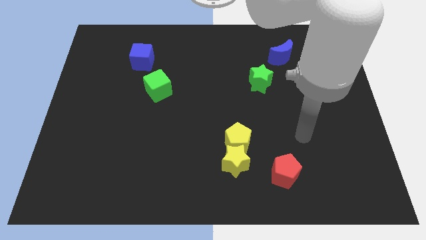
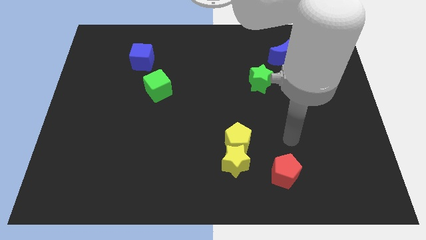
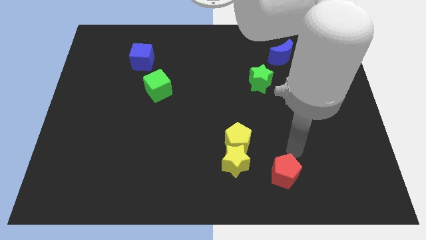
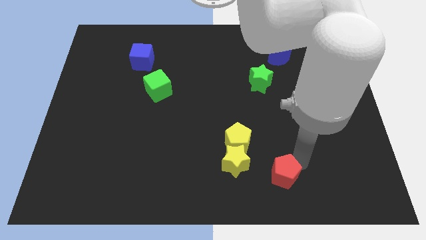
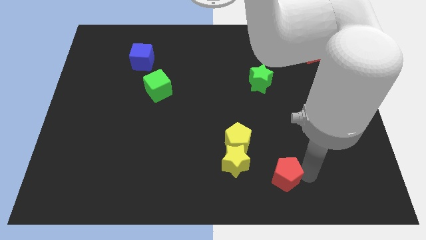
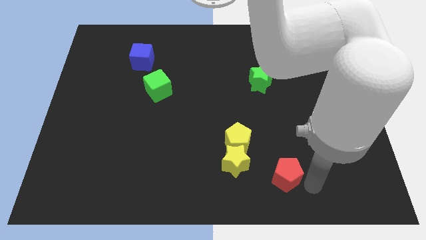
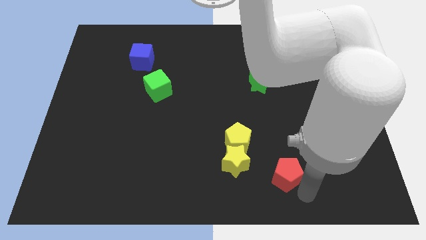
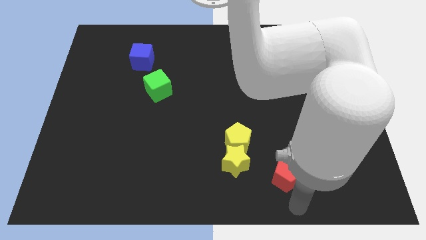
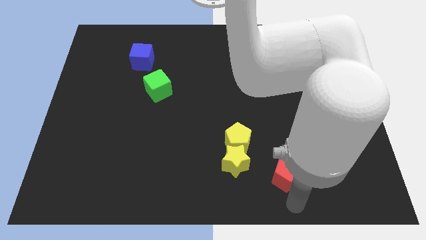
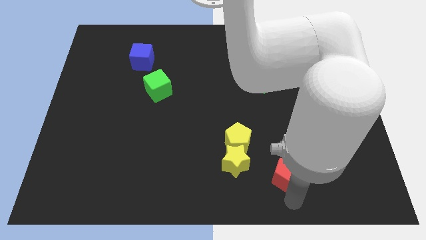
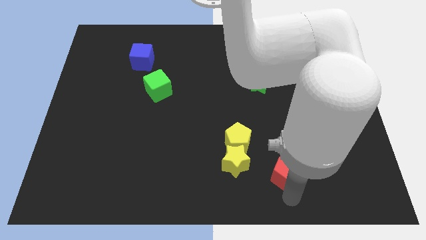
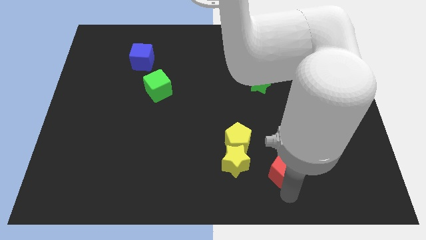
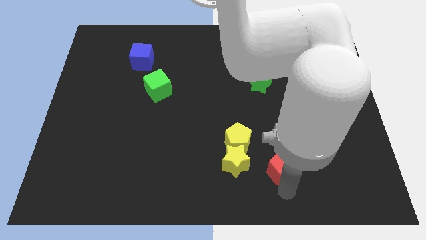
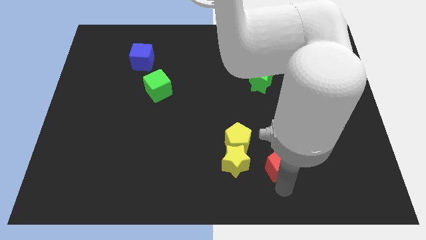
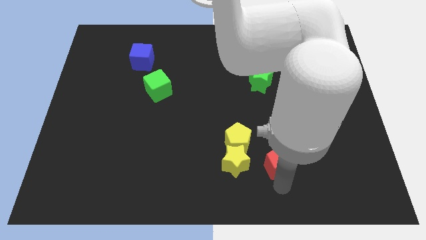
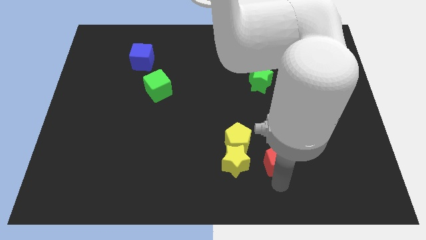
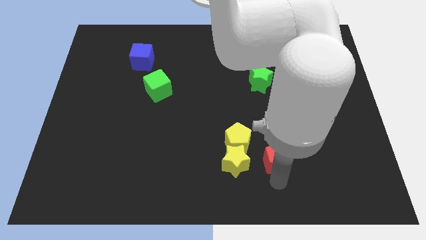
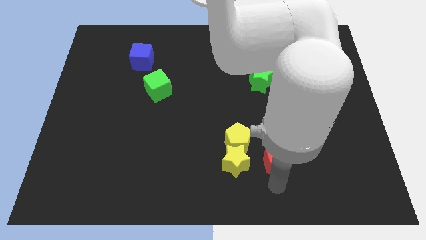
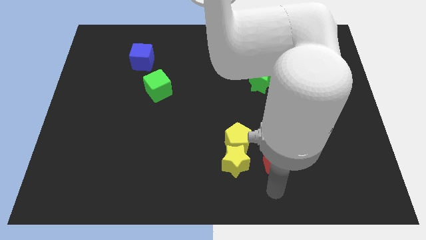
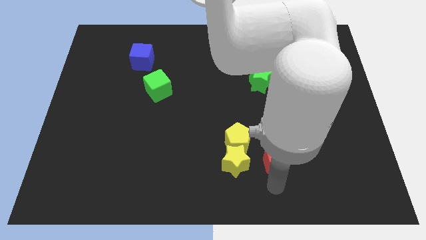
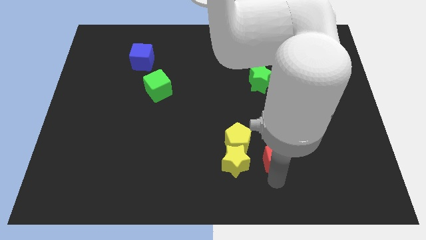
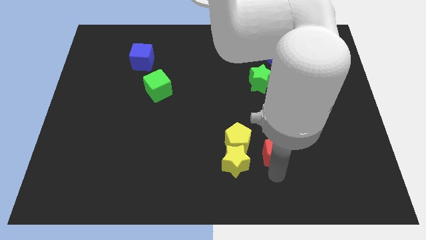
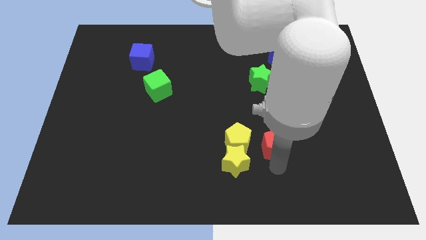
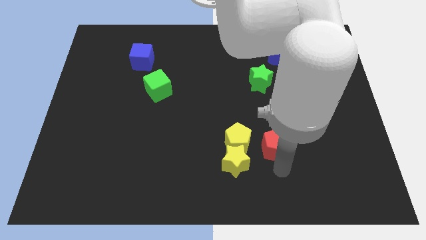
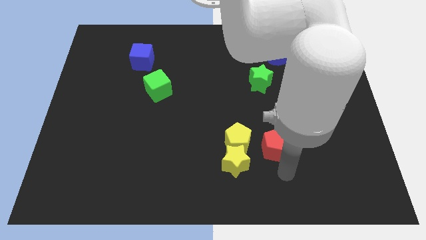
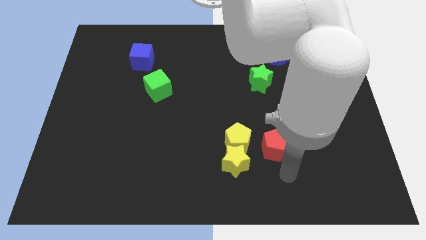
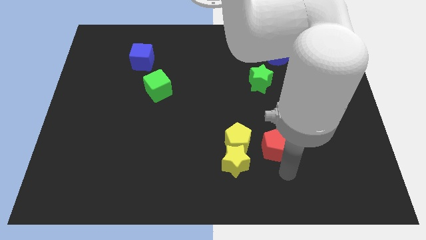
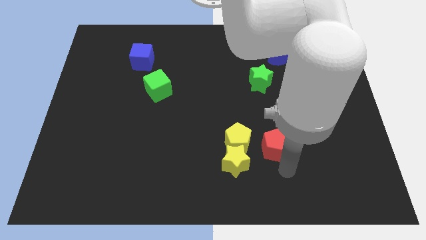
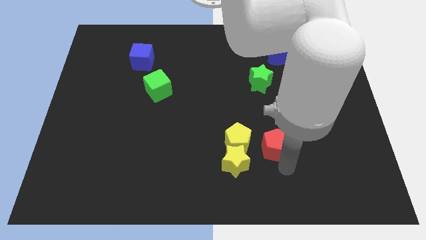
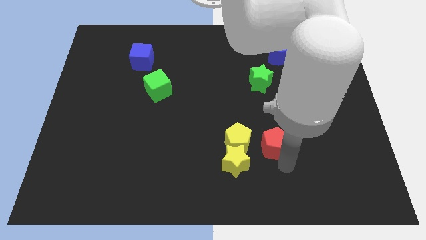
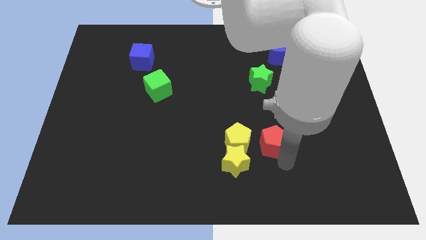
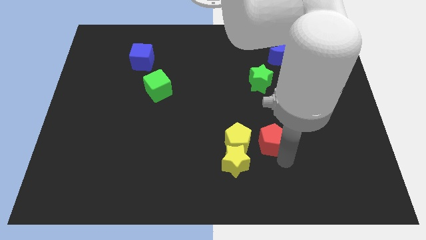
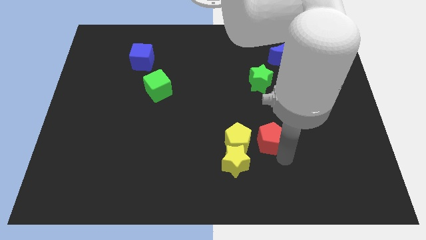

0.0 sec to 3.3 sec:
slightly move the red pentagon upwards and left diagonally

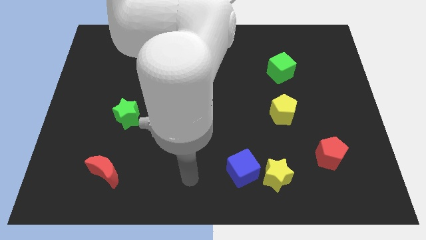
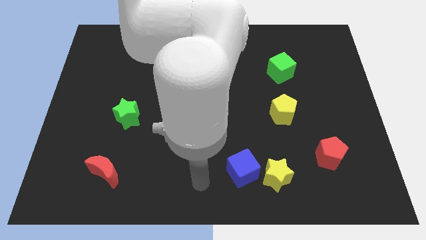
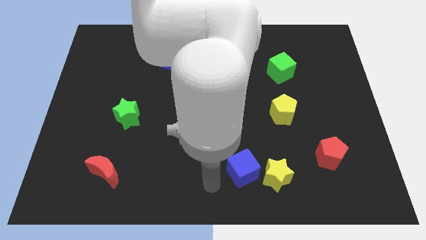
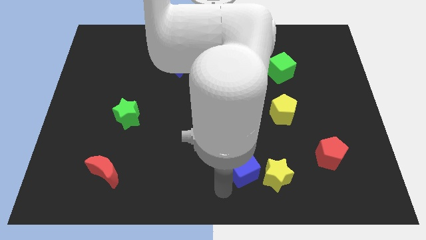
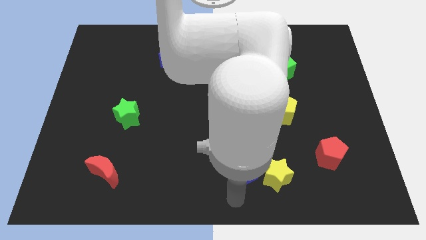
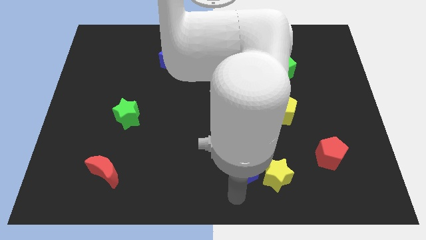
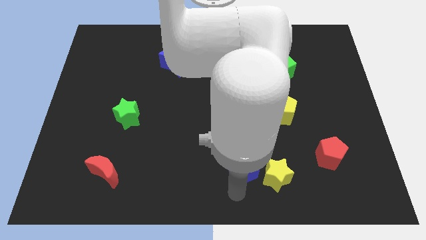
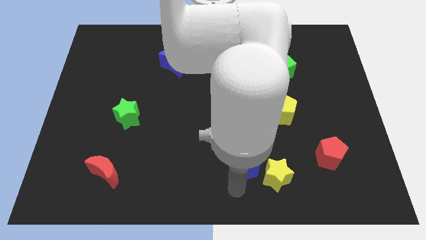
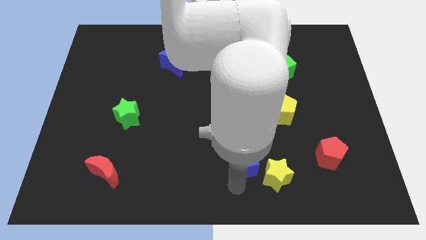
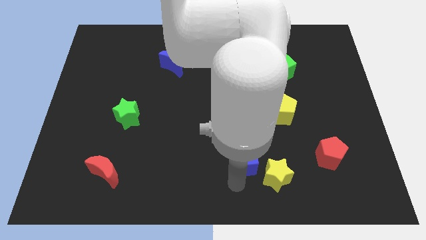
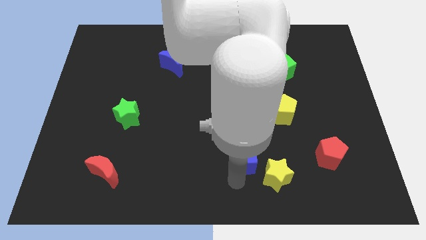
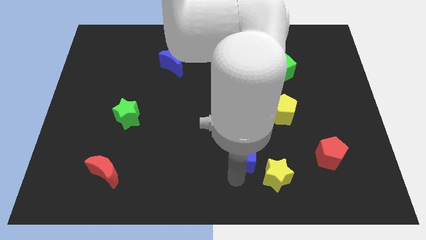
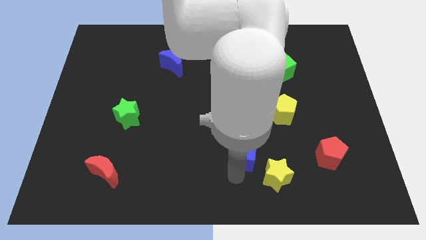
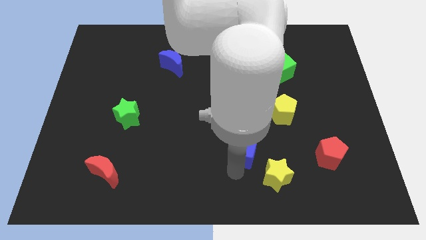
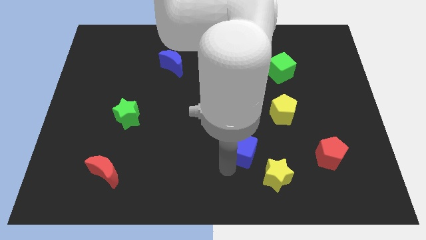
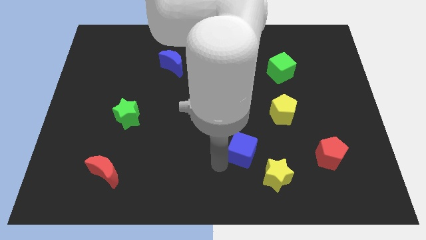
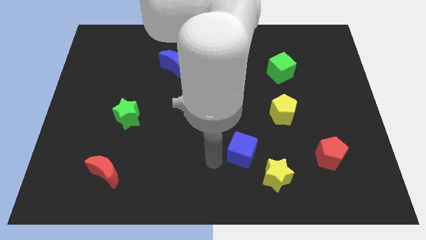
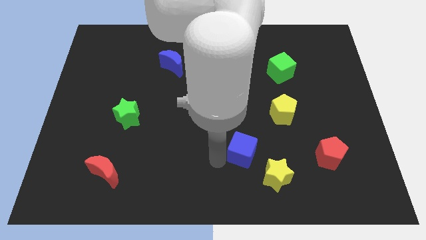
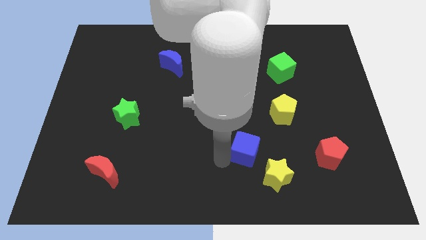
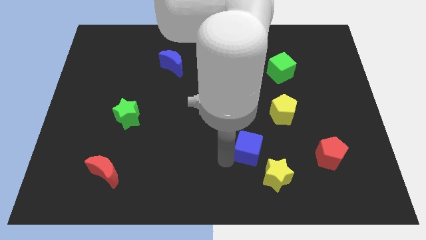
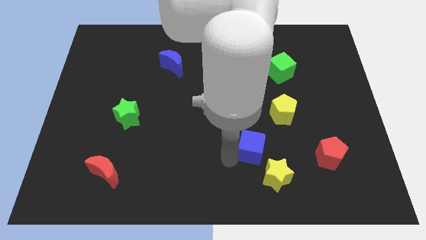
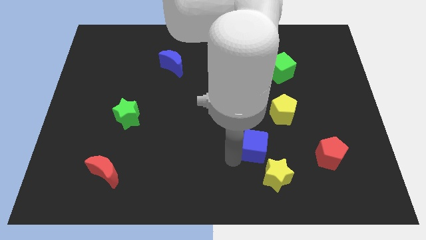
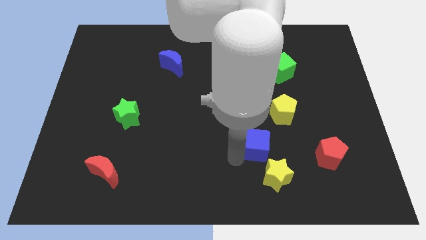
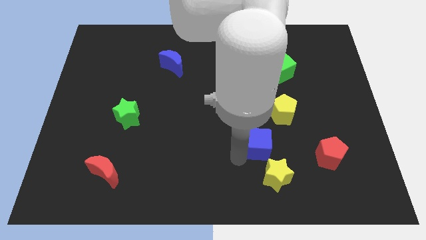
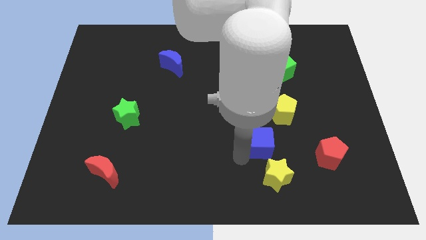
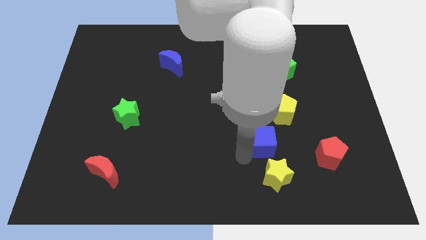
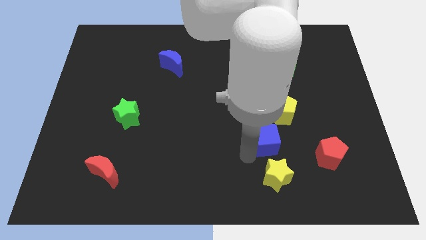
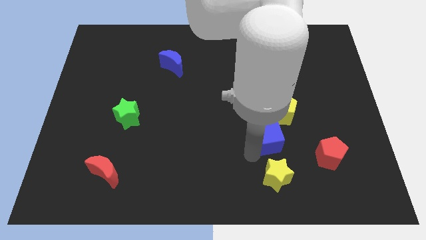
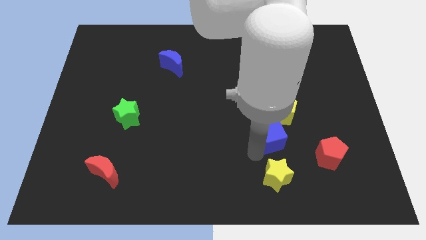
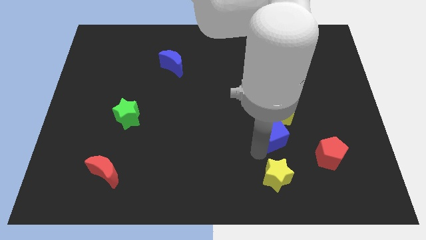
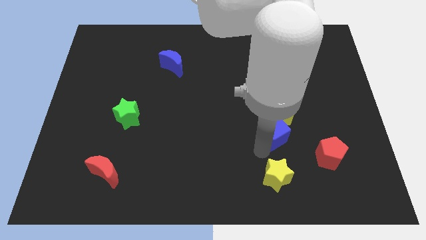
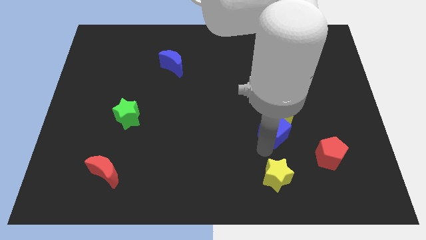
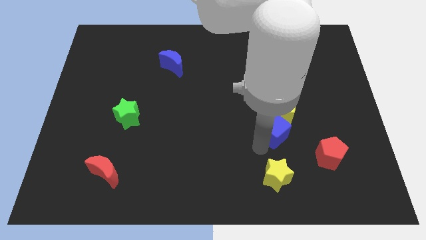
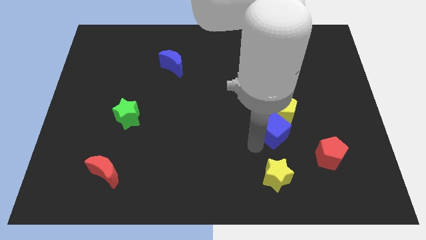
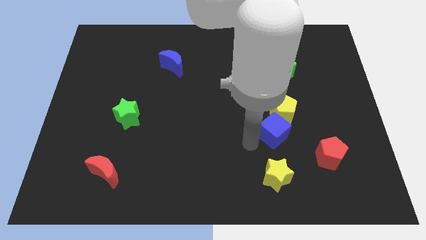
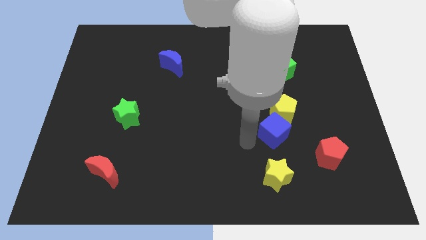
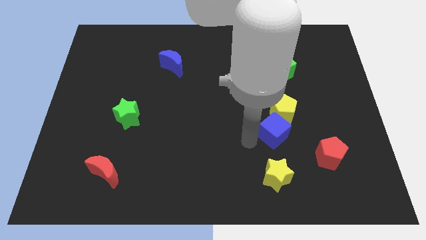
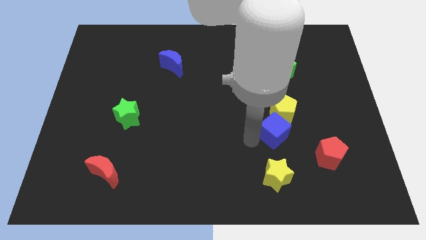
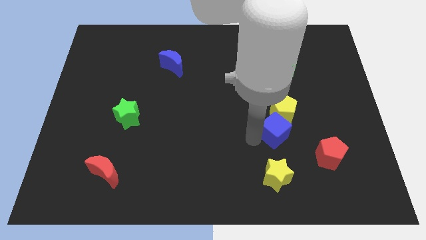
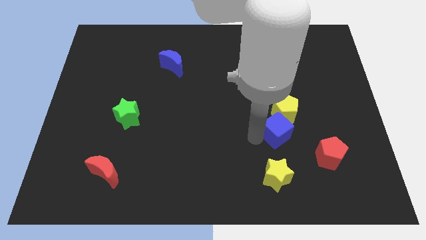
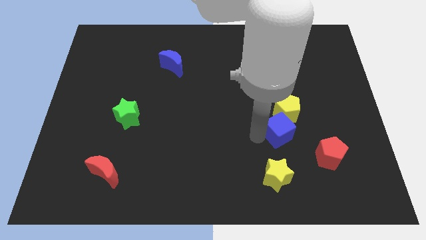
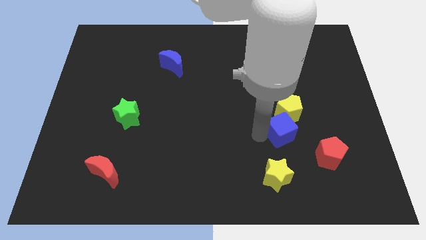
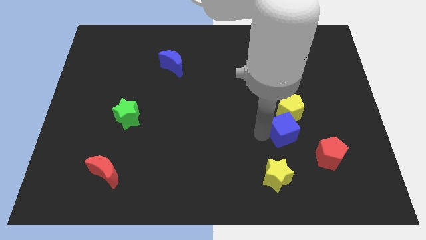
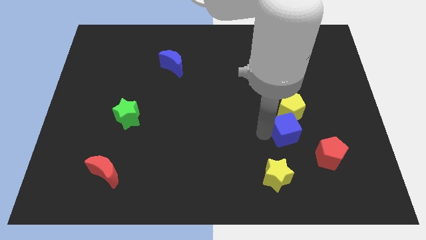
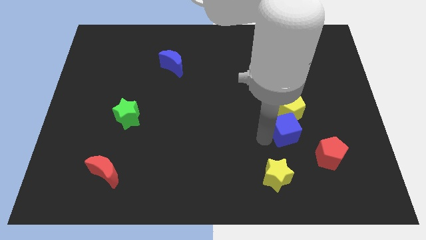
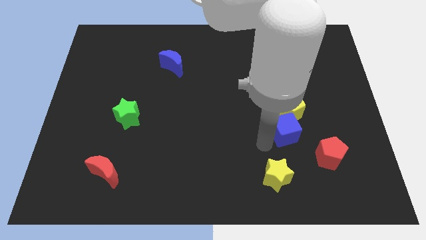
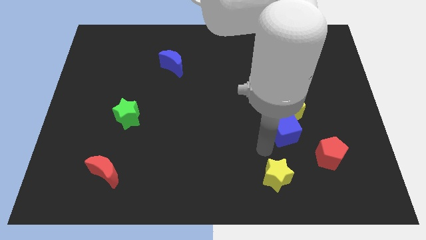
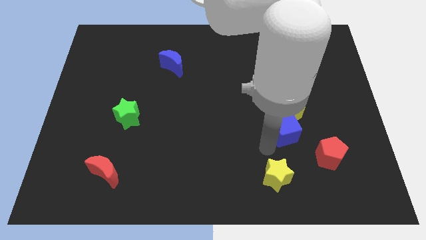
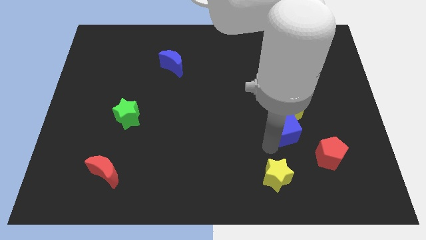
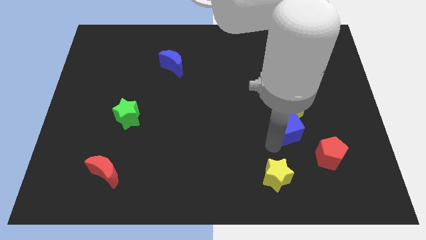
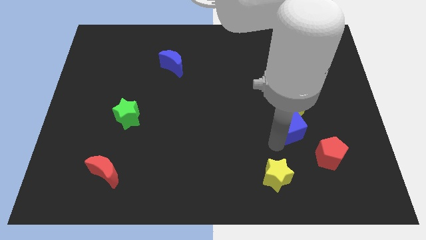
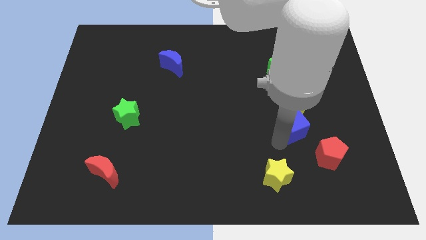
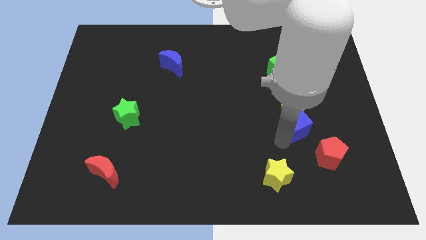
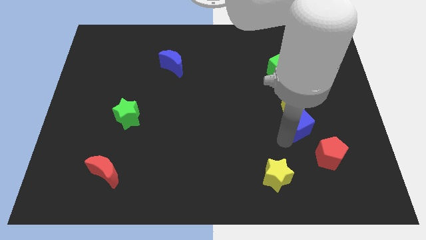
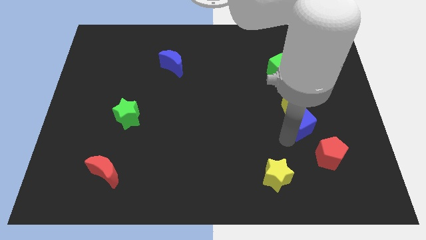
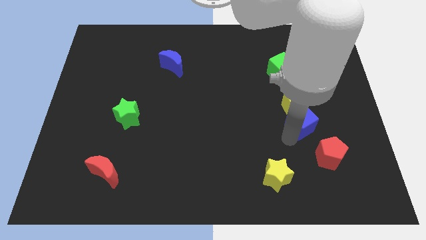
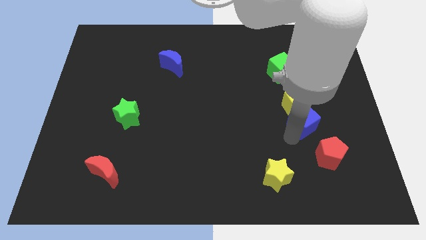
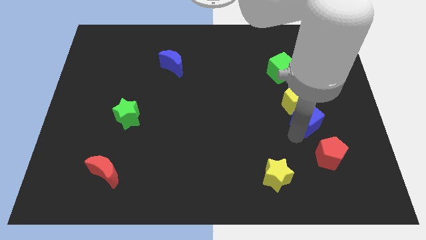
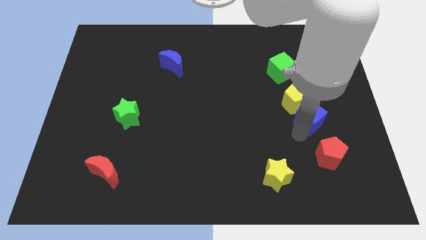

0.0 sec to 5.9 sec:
slide the blue cube upwards and then right
